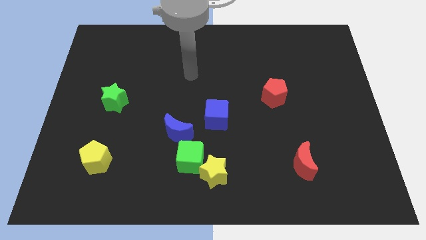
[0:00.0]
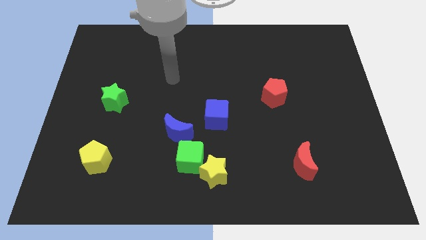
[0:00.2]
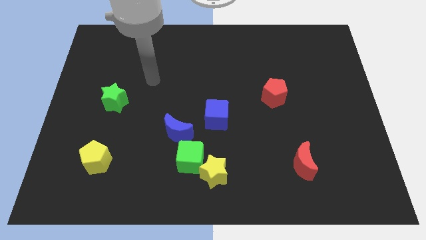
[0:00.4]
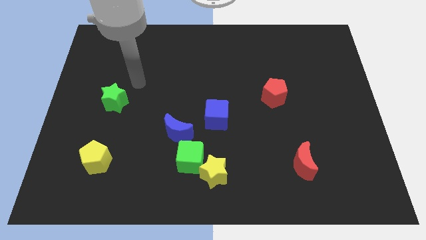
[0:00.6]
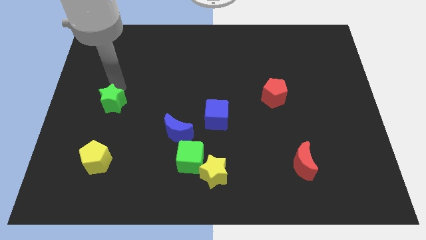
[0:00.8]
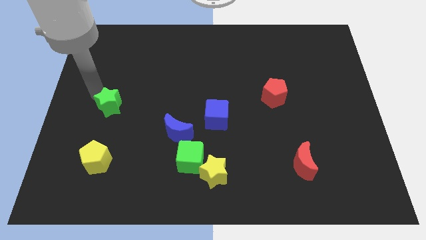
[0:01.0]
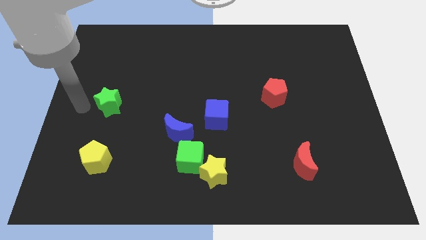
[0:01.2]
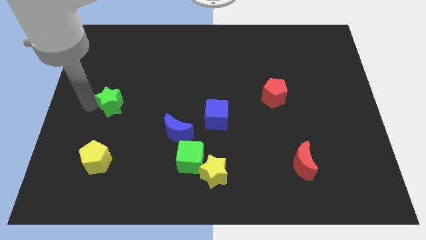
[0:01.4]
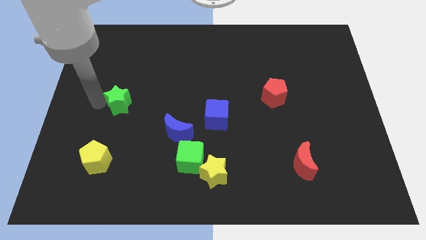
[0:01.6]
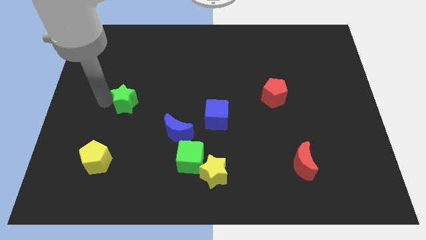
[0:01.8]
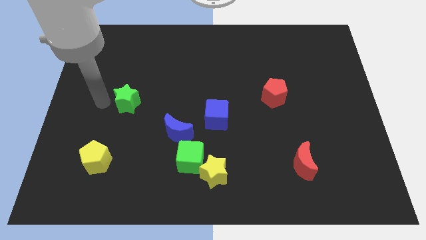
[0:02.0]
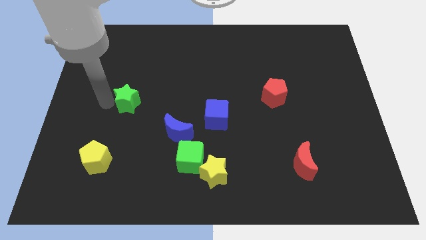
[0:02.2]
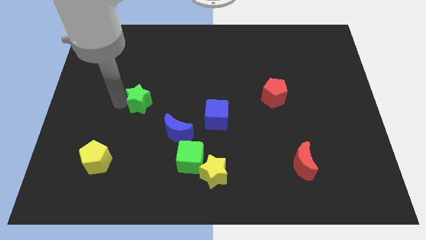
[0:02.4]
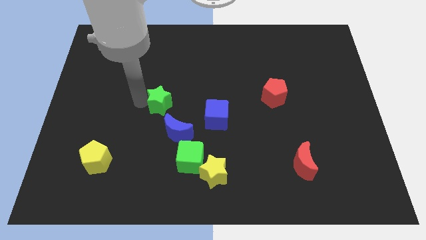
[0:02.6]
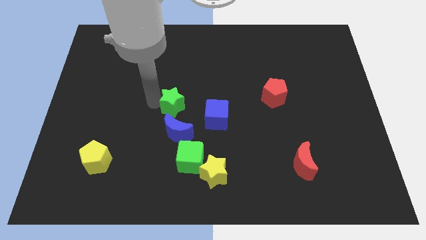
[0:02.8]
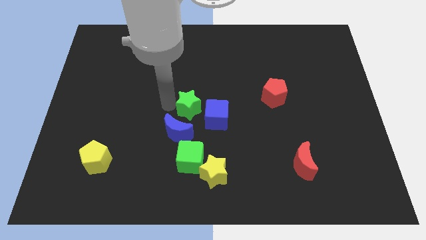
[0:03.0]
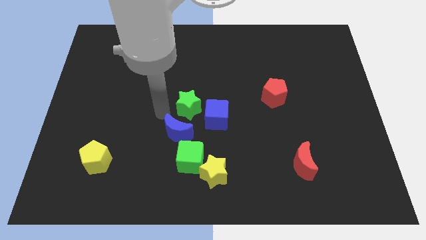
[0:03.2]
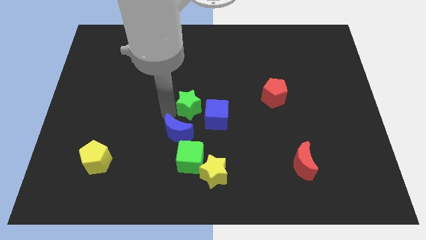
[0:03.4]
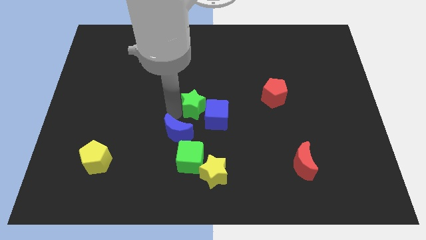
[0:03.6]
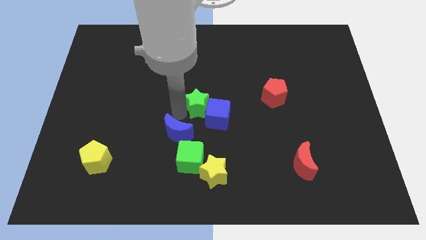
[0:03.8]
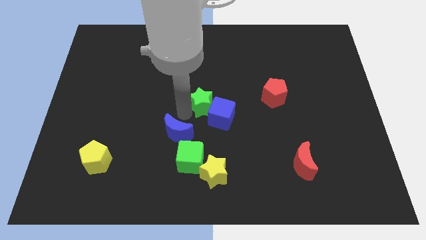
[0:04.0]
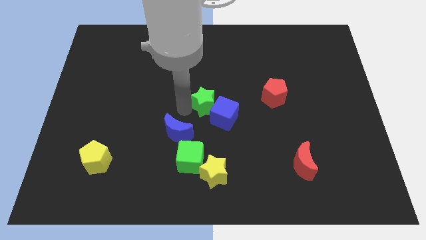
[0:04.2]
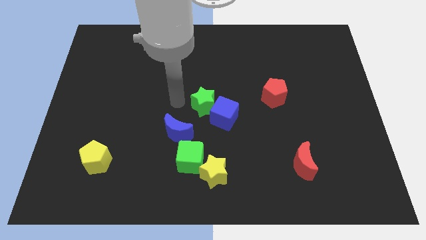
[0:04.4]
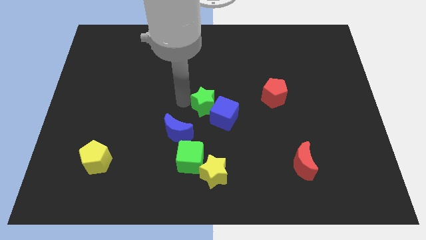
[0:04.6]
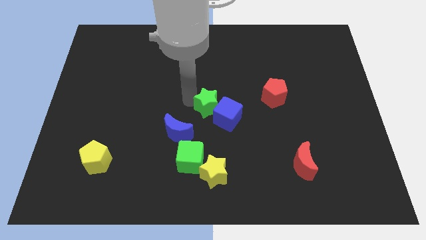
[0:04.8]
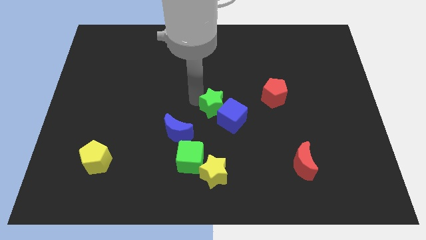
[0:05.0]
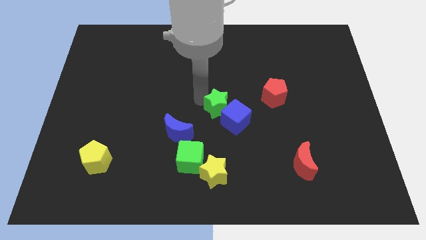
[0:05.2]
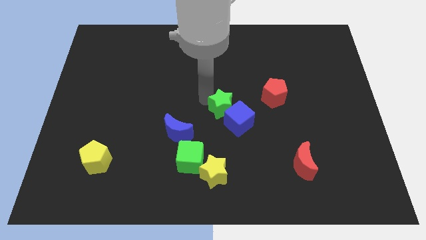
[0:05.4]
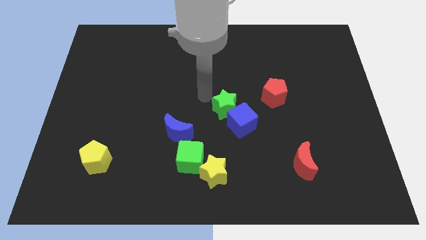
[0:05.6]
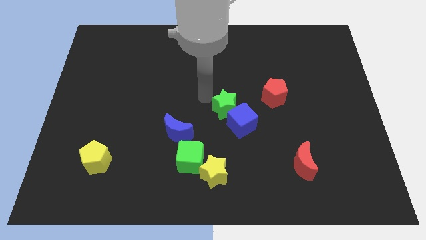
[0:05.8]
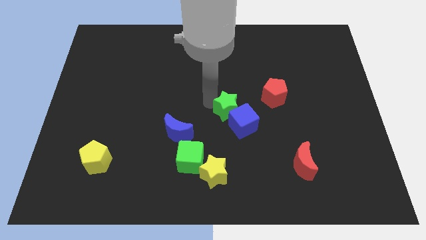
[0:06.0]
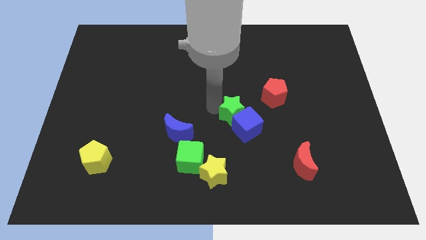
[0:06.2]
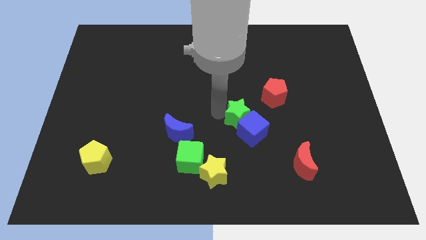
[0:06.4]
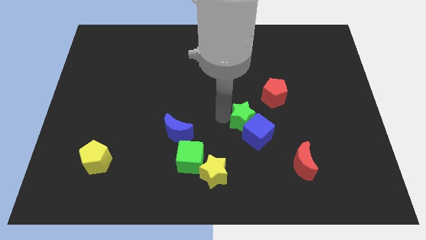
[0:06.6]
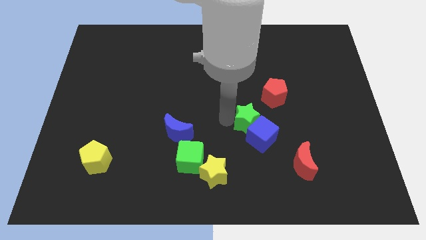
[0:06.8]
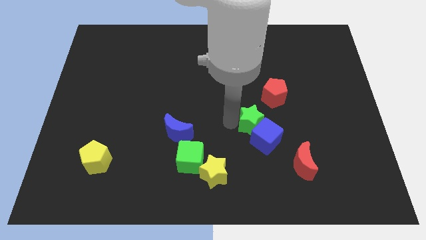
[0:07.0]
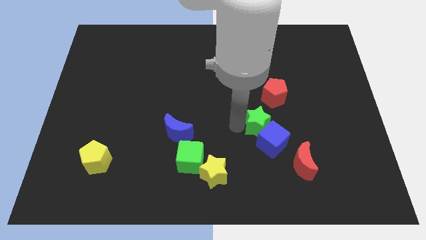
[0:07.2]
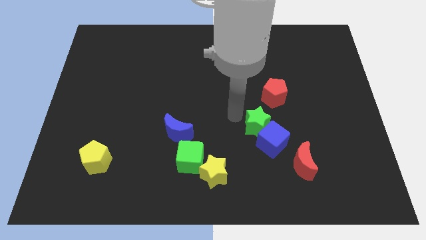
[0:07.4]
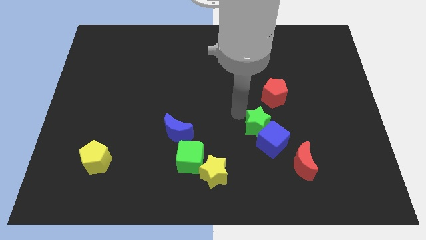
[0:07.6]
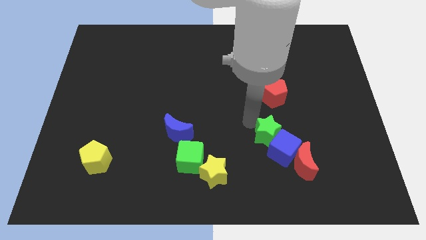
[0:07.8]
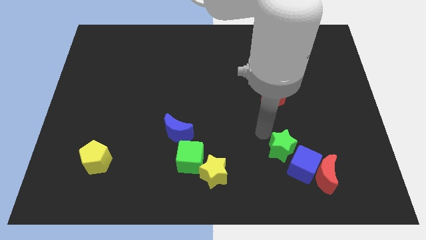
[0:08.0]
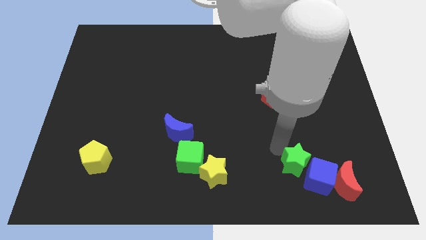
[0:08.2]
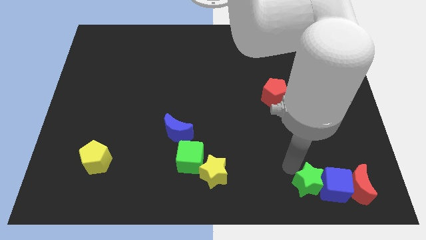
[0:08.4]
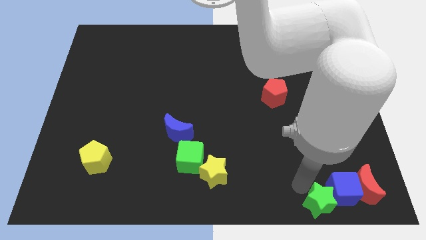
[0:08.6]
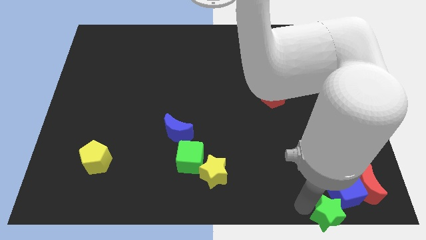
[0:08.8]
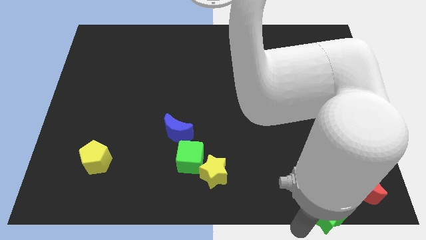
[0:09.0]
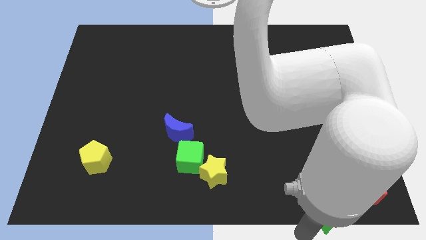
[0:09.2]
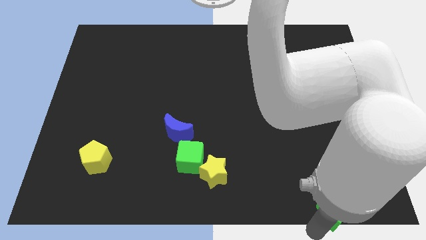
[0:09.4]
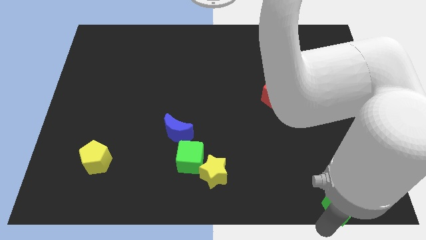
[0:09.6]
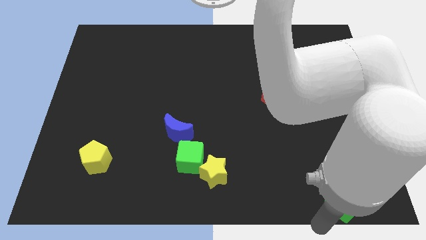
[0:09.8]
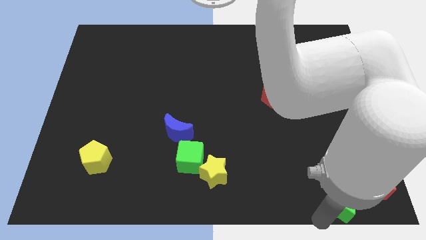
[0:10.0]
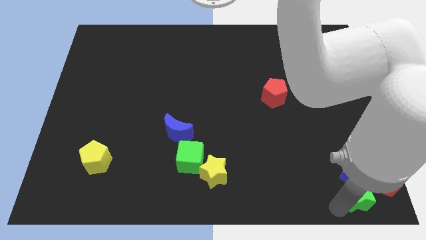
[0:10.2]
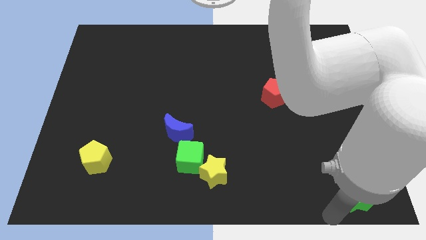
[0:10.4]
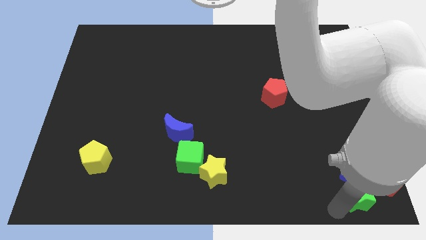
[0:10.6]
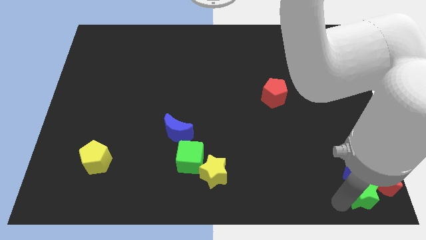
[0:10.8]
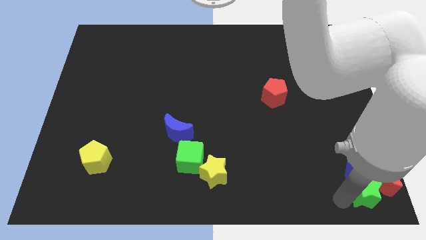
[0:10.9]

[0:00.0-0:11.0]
put the green star towards the red moon

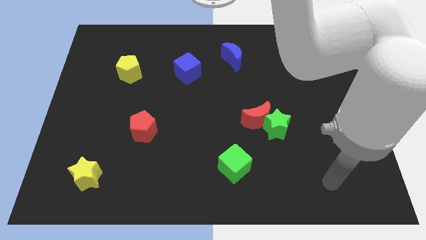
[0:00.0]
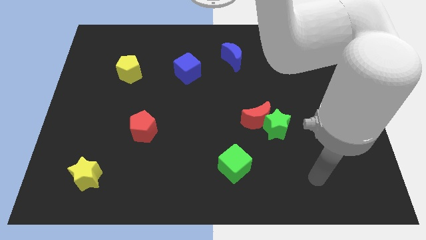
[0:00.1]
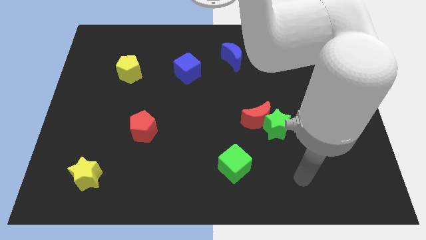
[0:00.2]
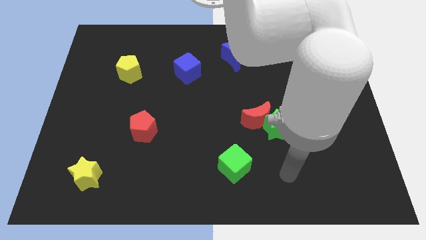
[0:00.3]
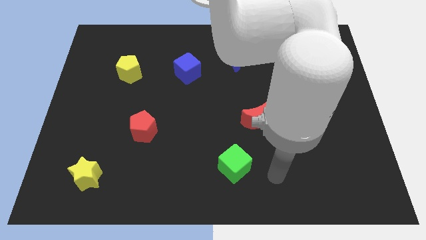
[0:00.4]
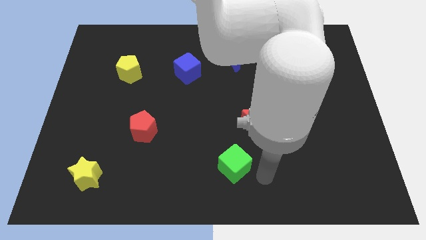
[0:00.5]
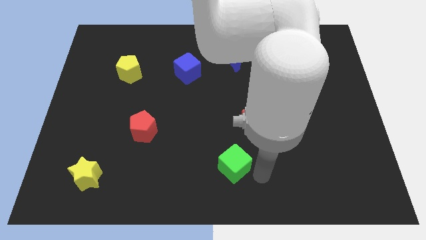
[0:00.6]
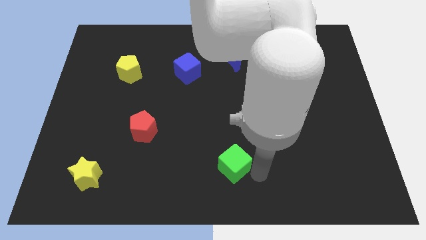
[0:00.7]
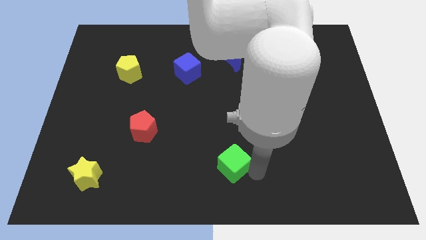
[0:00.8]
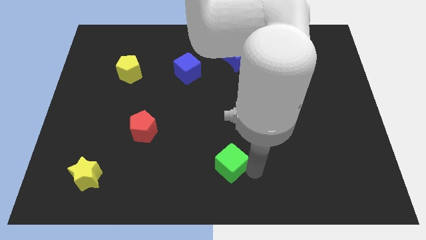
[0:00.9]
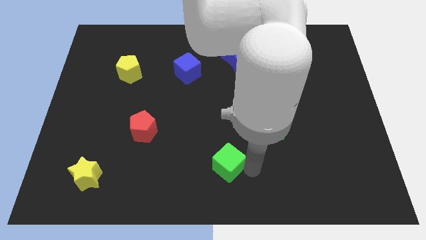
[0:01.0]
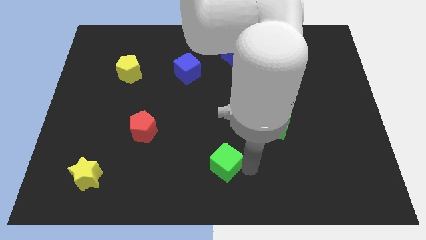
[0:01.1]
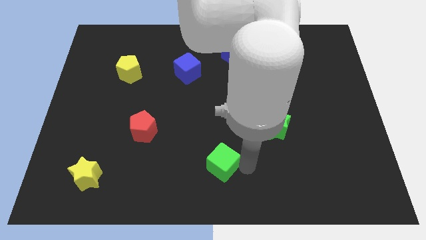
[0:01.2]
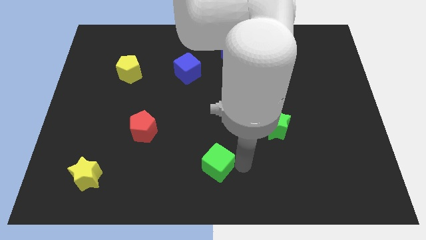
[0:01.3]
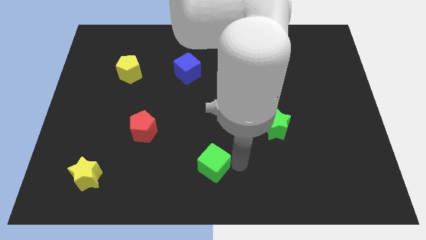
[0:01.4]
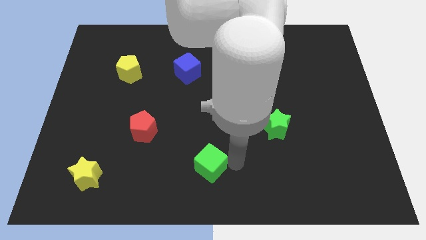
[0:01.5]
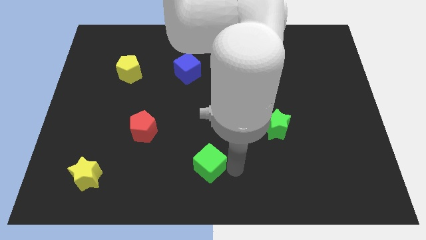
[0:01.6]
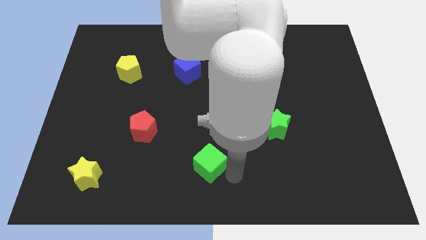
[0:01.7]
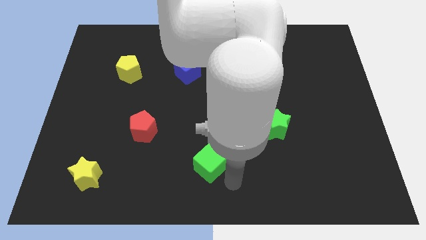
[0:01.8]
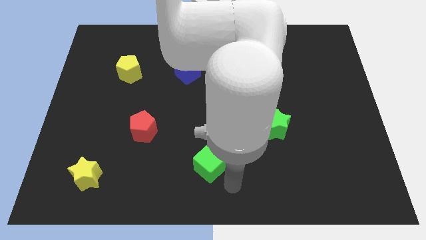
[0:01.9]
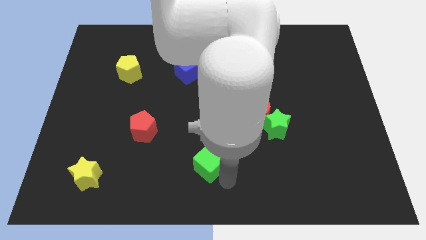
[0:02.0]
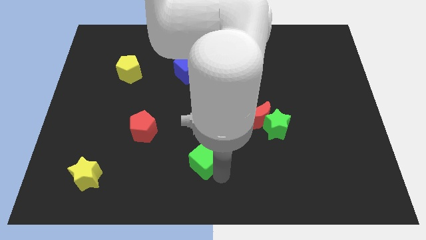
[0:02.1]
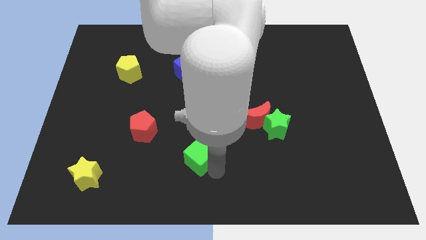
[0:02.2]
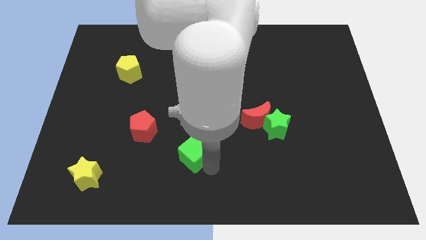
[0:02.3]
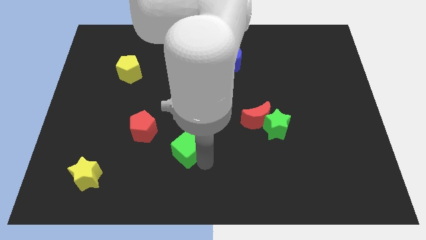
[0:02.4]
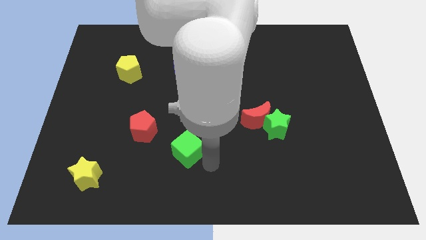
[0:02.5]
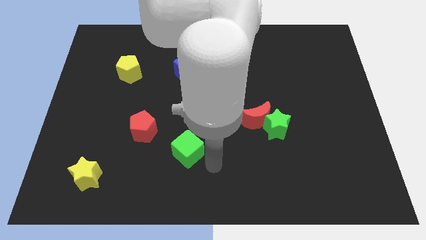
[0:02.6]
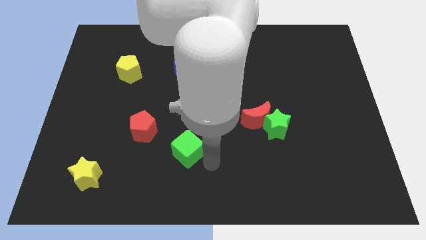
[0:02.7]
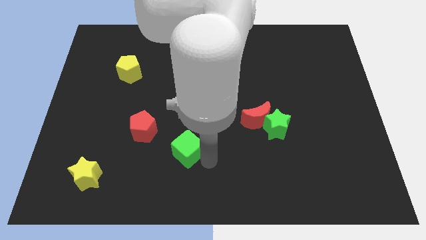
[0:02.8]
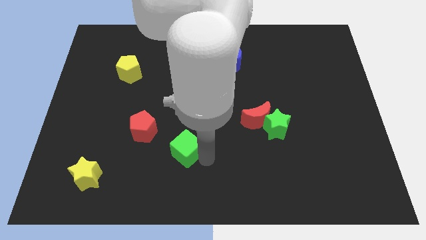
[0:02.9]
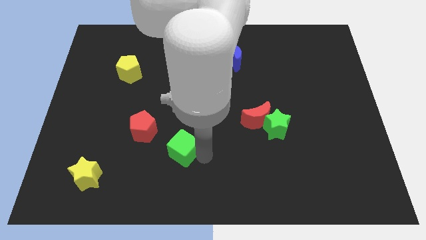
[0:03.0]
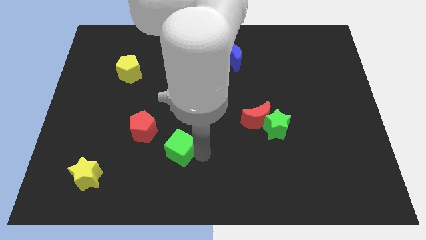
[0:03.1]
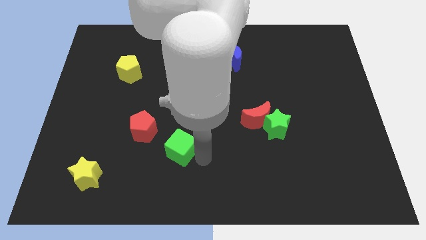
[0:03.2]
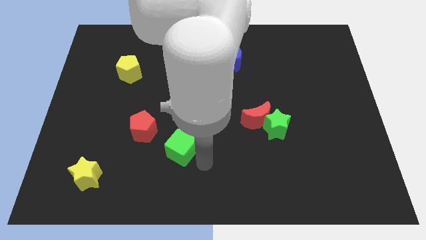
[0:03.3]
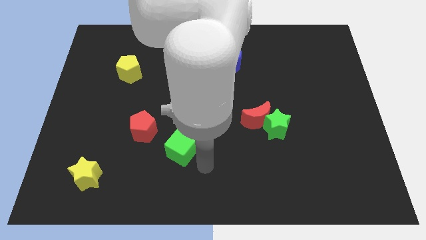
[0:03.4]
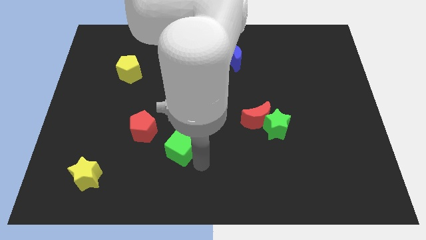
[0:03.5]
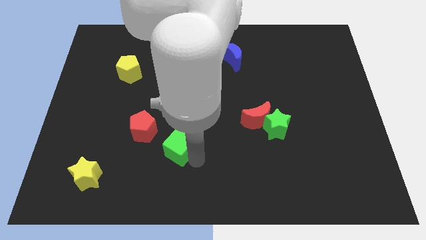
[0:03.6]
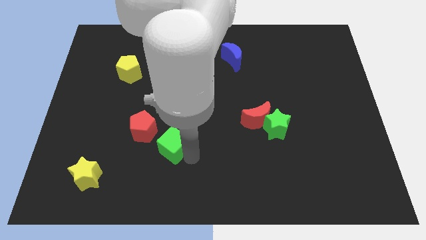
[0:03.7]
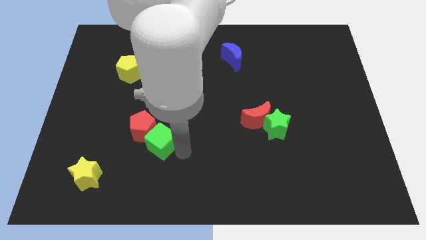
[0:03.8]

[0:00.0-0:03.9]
push the green cube next to the red pentagon
